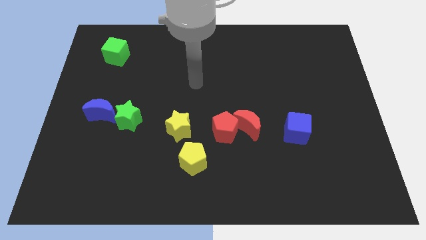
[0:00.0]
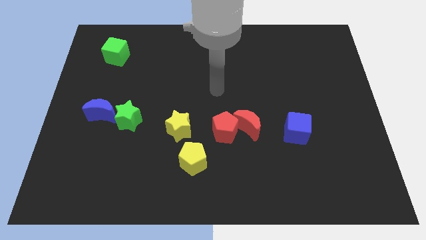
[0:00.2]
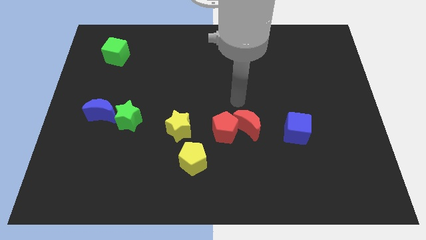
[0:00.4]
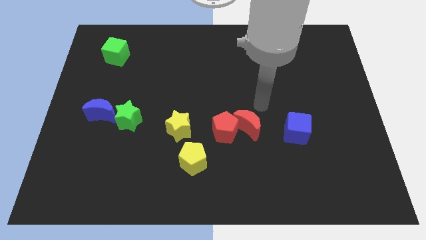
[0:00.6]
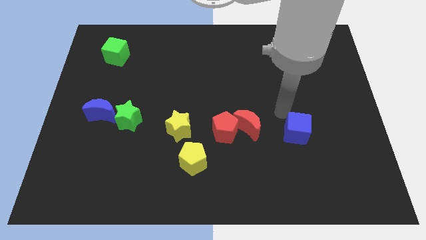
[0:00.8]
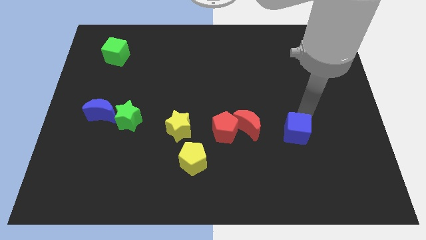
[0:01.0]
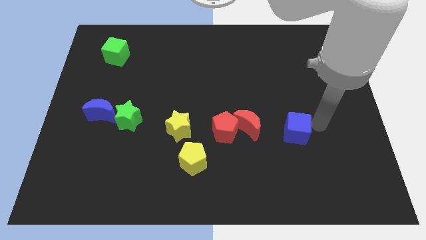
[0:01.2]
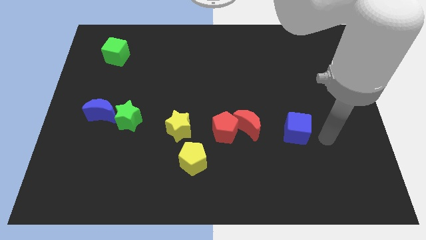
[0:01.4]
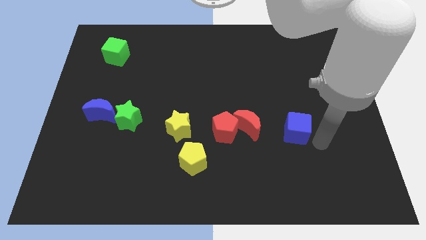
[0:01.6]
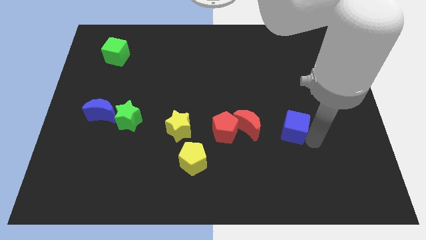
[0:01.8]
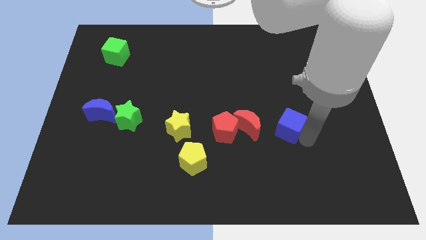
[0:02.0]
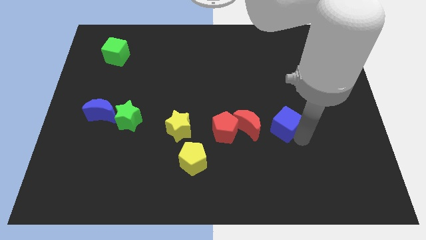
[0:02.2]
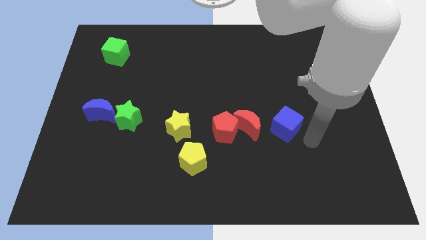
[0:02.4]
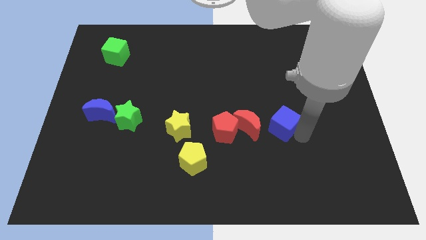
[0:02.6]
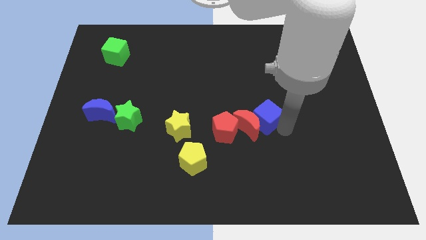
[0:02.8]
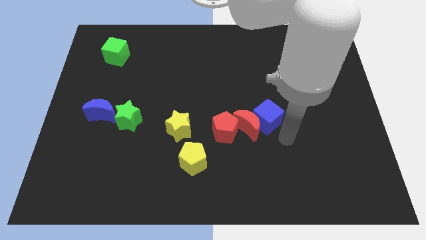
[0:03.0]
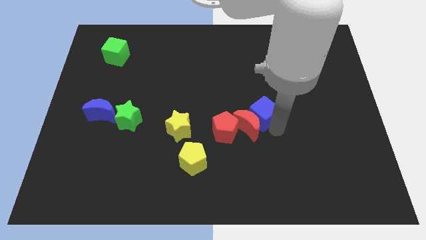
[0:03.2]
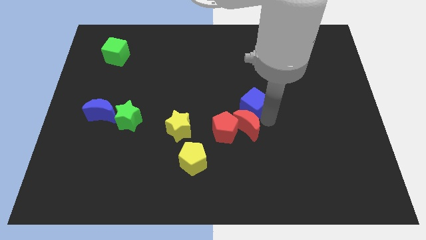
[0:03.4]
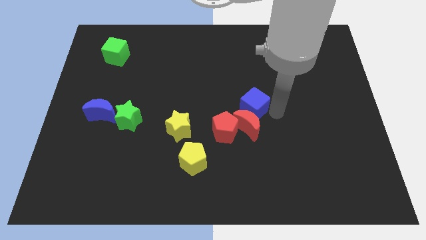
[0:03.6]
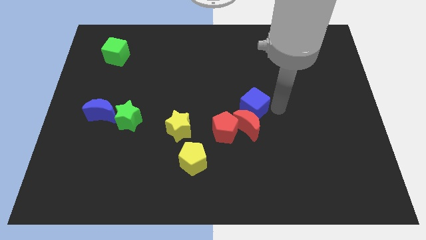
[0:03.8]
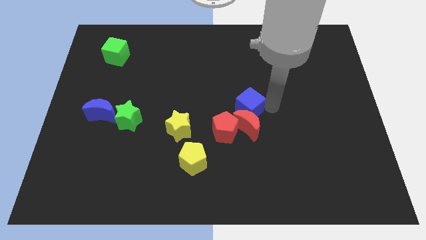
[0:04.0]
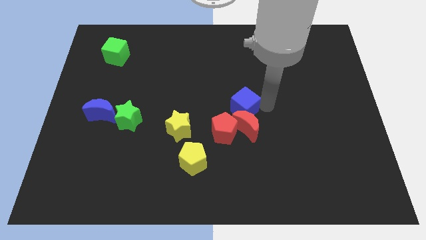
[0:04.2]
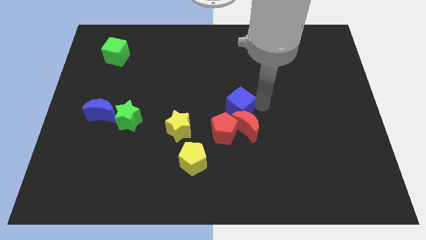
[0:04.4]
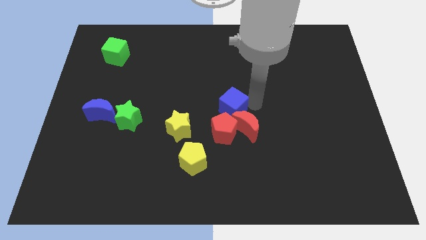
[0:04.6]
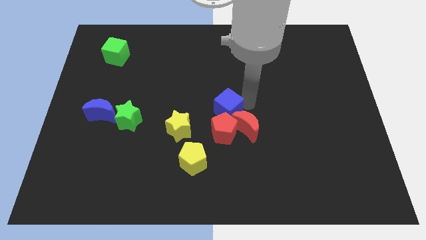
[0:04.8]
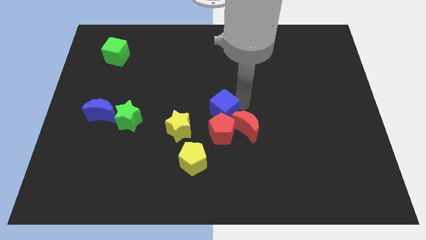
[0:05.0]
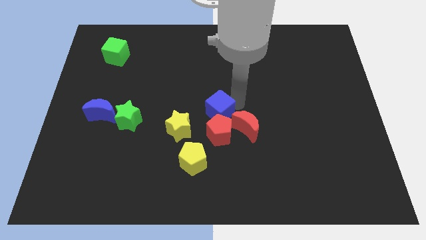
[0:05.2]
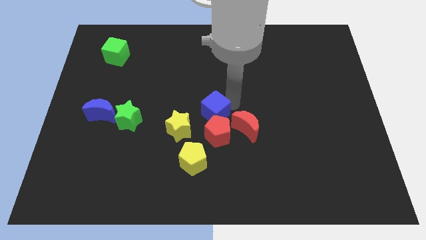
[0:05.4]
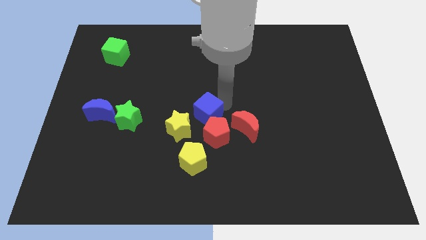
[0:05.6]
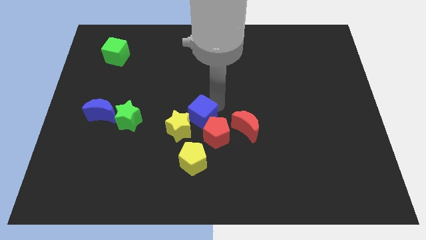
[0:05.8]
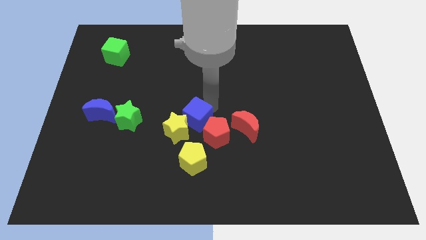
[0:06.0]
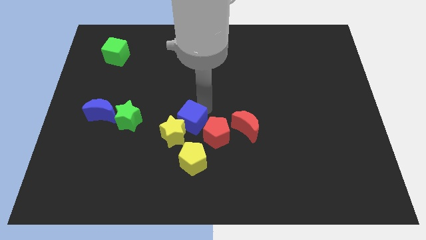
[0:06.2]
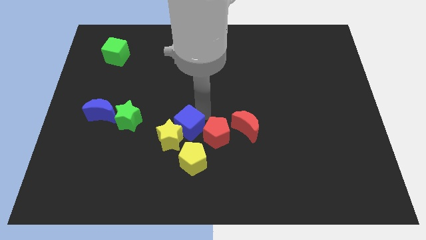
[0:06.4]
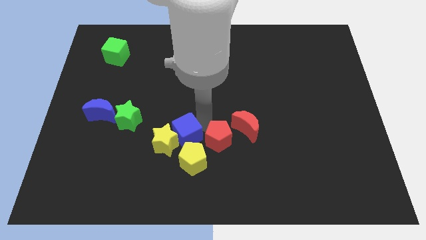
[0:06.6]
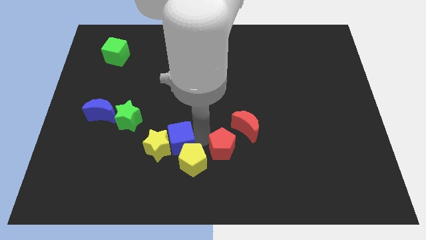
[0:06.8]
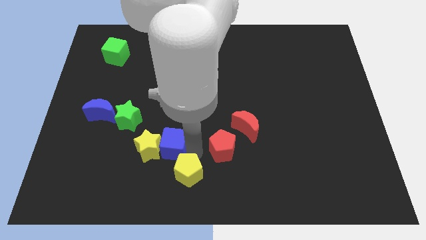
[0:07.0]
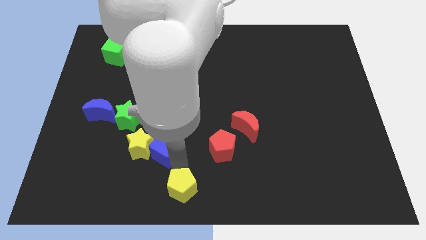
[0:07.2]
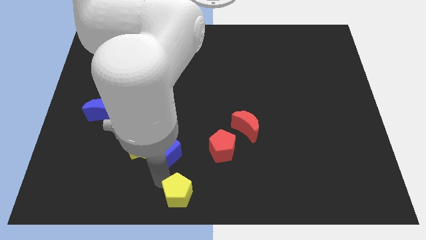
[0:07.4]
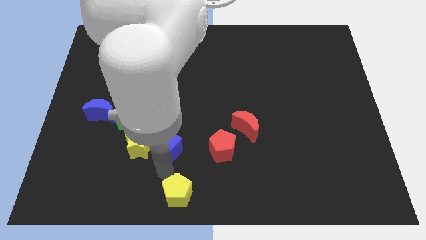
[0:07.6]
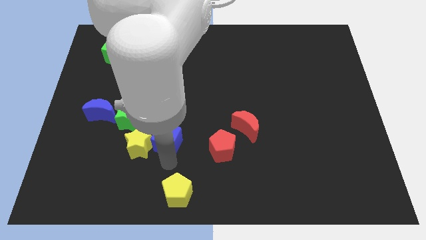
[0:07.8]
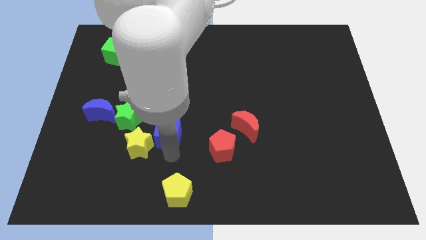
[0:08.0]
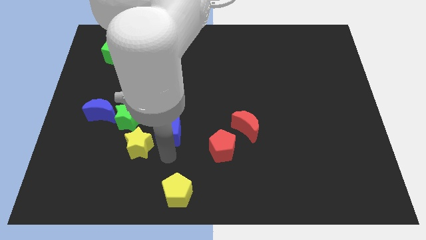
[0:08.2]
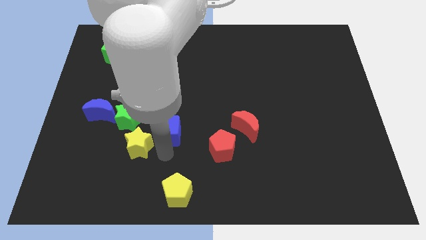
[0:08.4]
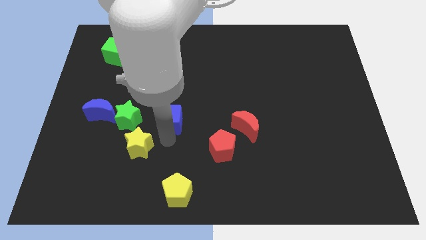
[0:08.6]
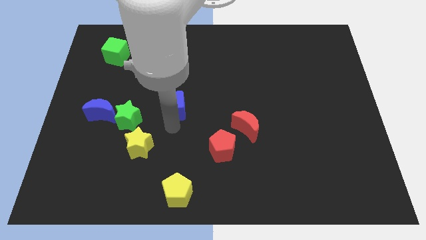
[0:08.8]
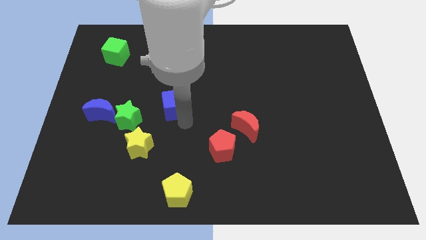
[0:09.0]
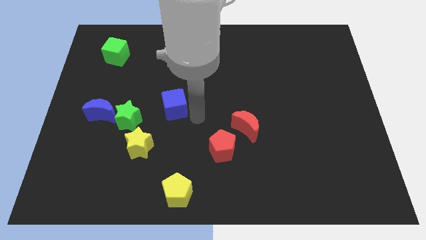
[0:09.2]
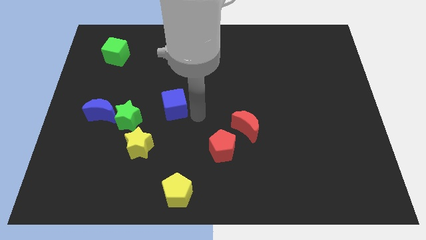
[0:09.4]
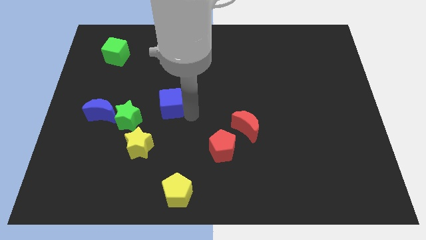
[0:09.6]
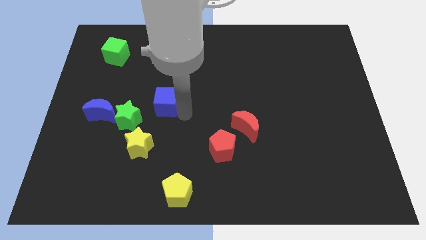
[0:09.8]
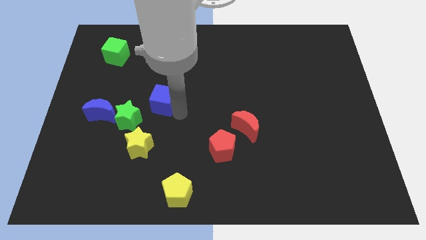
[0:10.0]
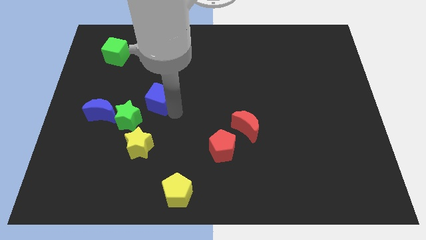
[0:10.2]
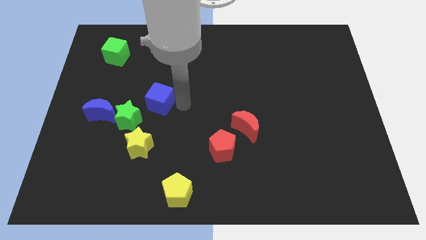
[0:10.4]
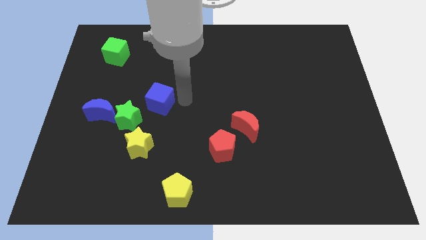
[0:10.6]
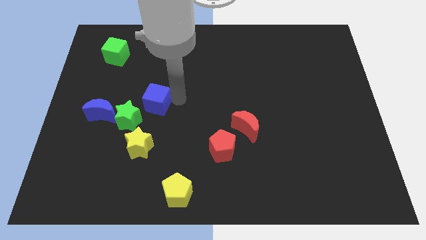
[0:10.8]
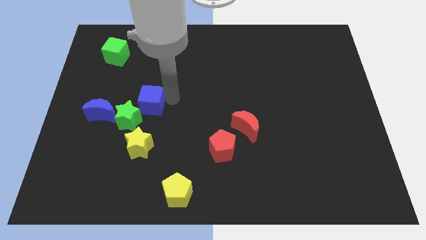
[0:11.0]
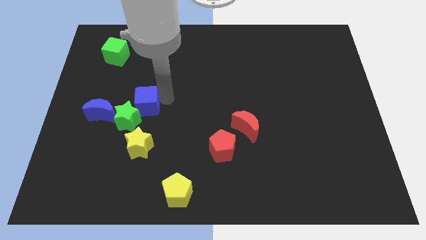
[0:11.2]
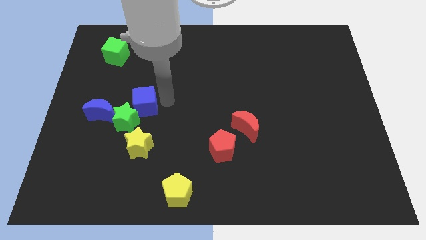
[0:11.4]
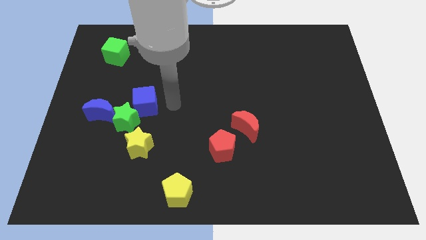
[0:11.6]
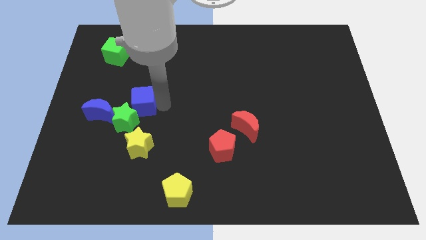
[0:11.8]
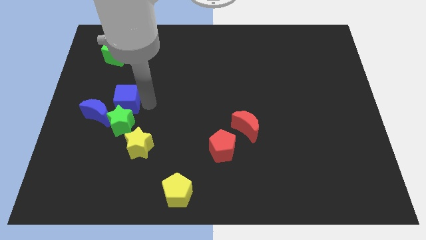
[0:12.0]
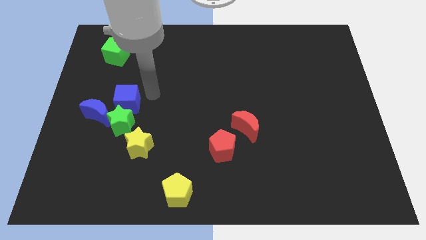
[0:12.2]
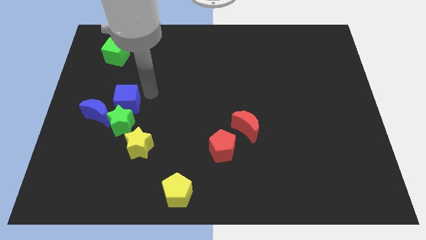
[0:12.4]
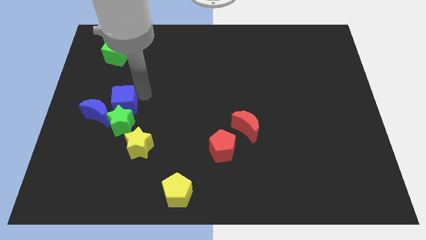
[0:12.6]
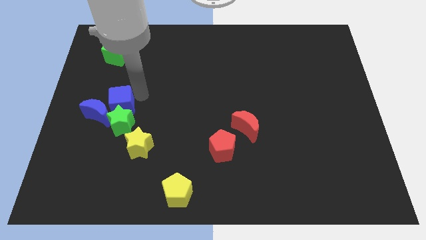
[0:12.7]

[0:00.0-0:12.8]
move the blue cube close to the blue moon
